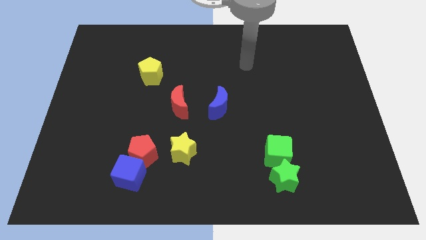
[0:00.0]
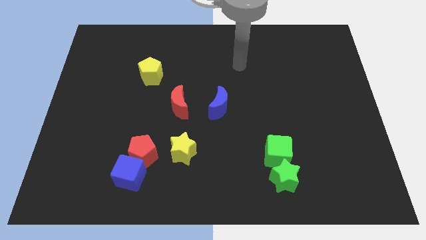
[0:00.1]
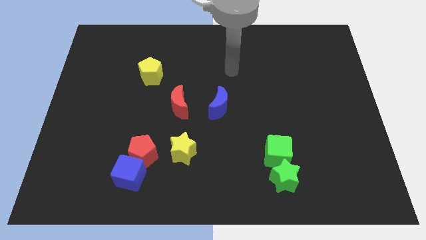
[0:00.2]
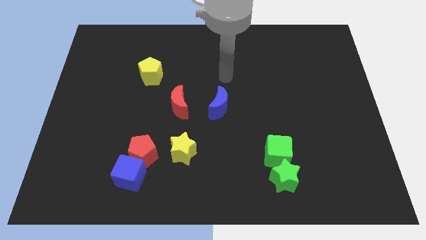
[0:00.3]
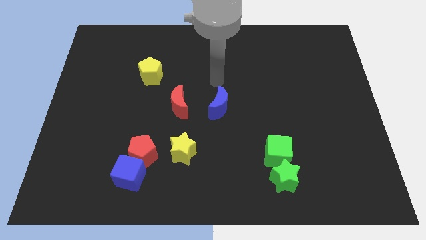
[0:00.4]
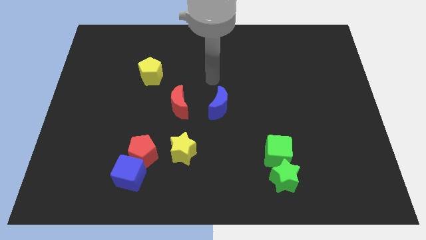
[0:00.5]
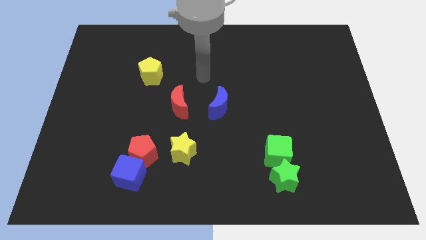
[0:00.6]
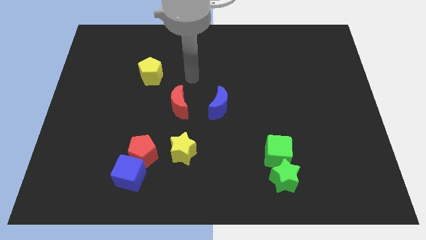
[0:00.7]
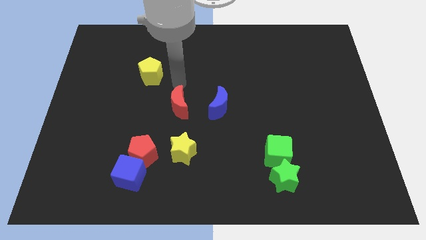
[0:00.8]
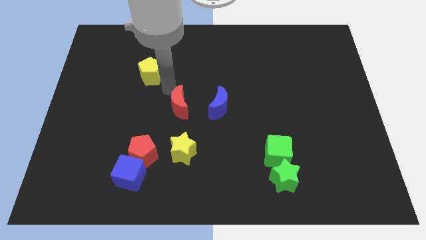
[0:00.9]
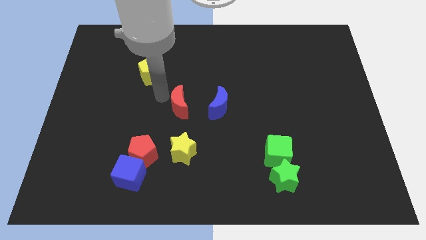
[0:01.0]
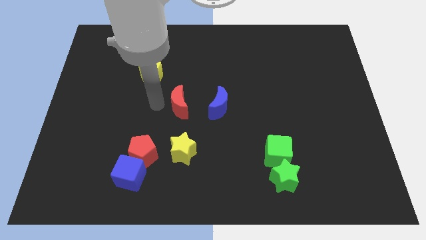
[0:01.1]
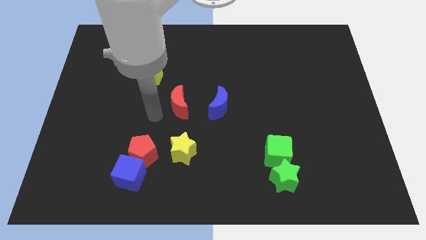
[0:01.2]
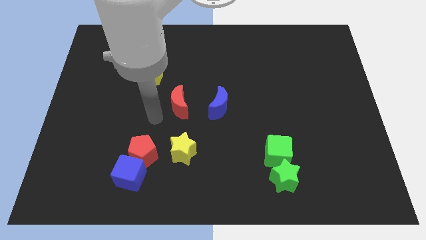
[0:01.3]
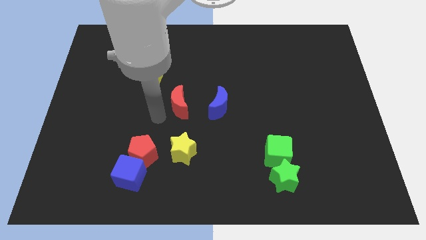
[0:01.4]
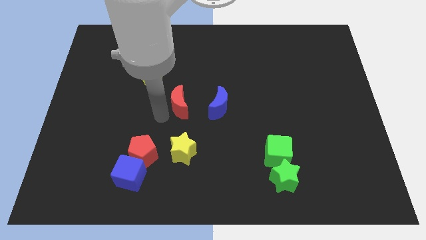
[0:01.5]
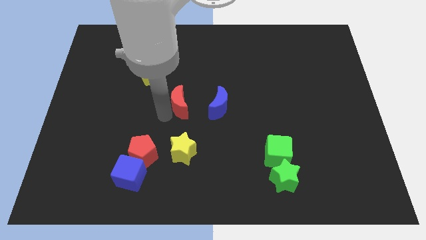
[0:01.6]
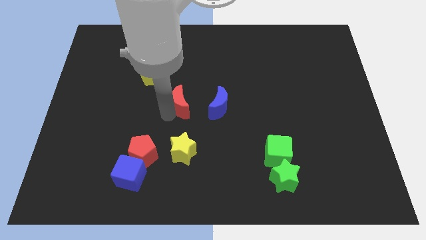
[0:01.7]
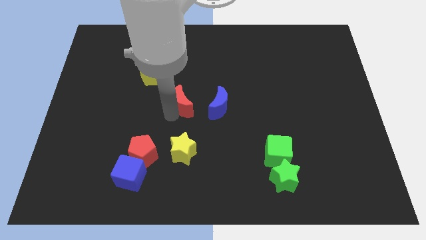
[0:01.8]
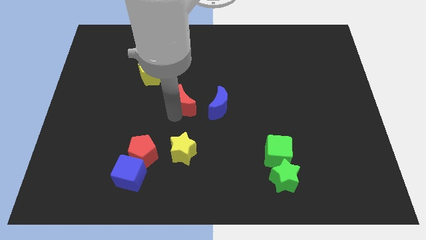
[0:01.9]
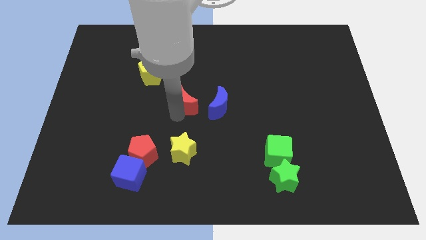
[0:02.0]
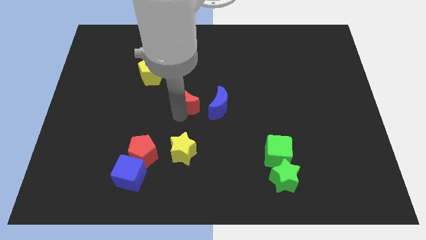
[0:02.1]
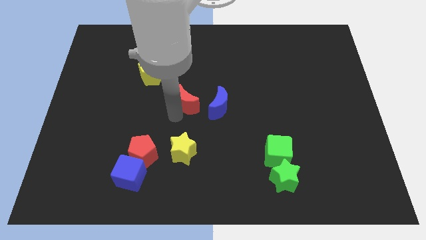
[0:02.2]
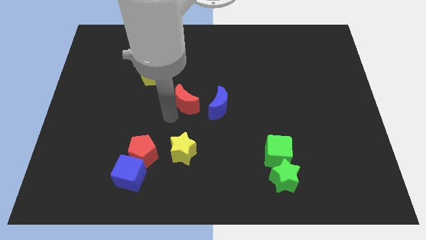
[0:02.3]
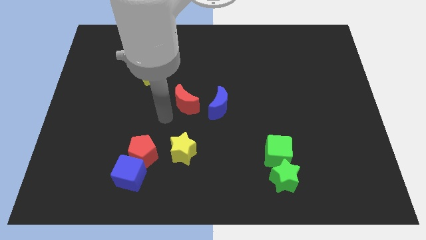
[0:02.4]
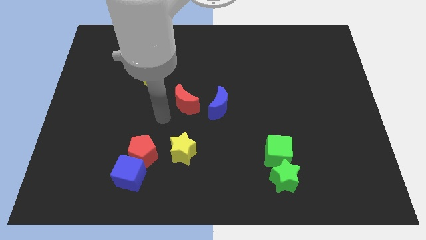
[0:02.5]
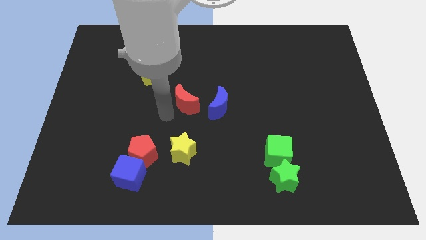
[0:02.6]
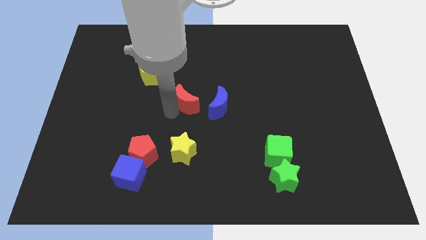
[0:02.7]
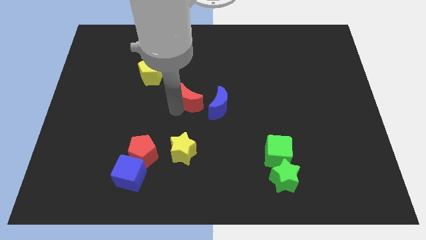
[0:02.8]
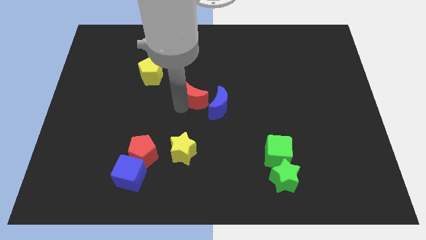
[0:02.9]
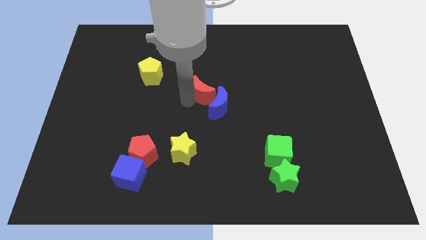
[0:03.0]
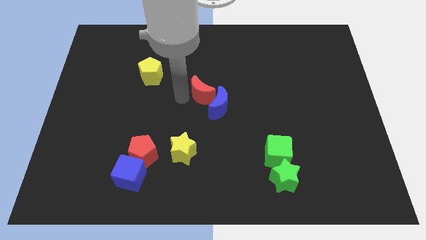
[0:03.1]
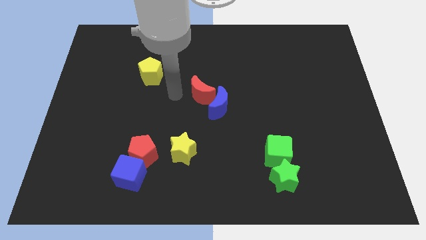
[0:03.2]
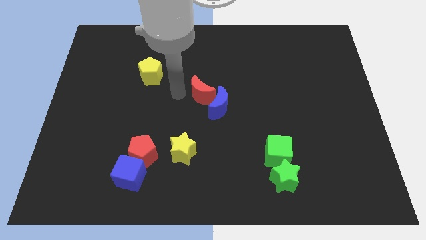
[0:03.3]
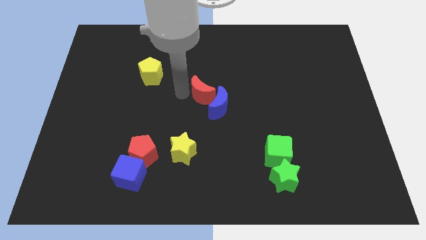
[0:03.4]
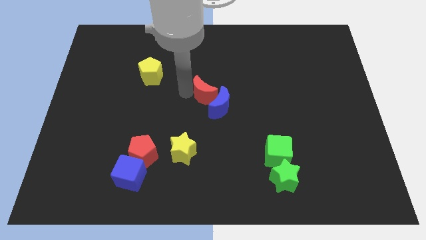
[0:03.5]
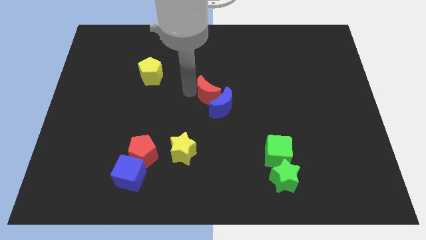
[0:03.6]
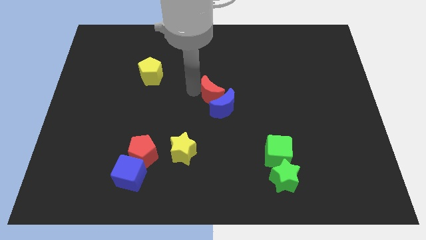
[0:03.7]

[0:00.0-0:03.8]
slightly slide the red moon to the right

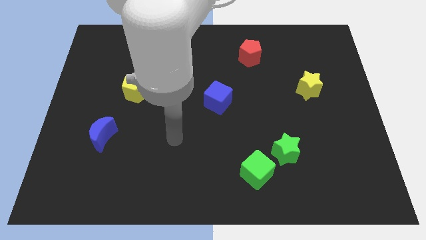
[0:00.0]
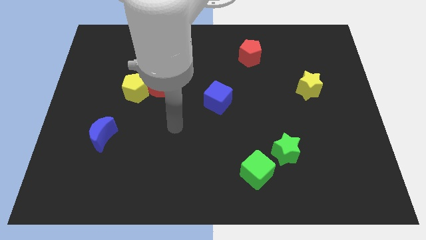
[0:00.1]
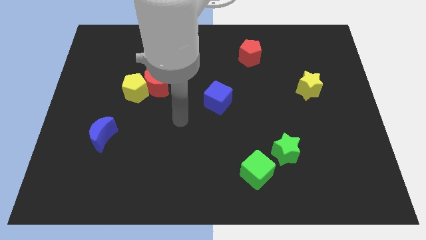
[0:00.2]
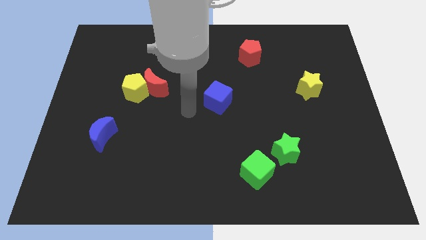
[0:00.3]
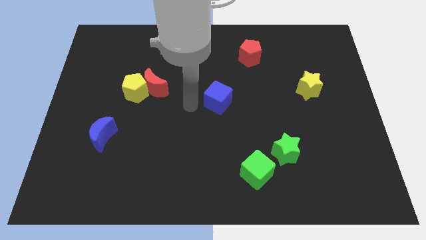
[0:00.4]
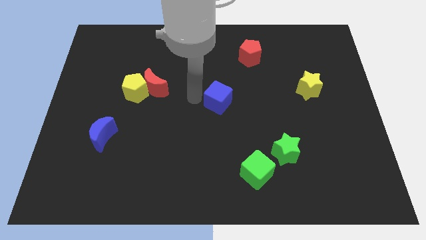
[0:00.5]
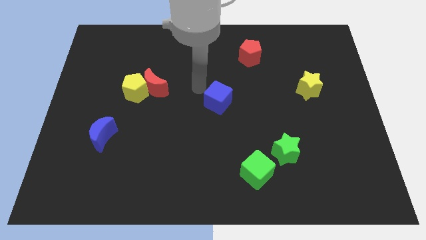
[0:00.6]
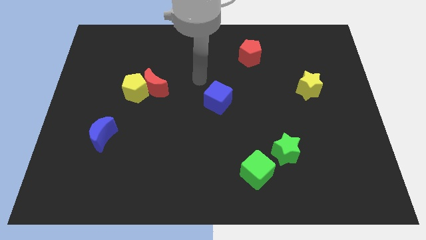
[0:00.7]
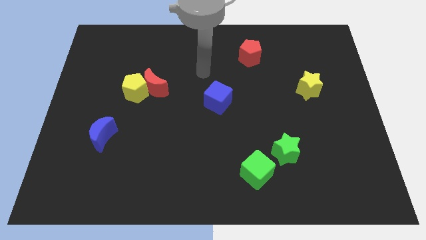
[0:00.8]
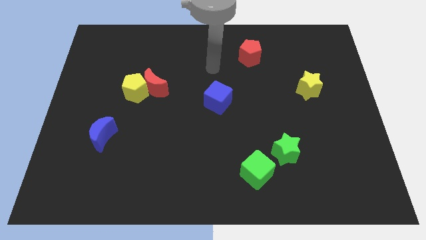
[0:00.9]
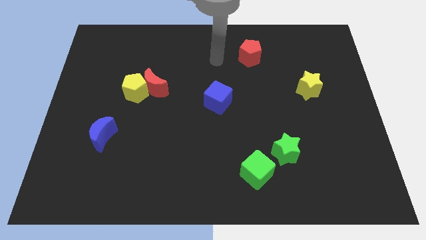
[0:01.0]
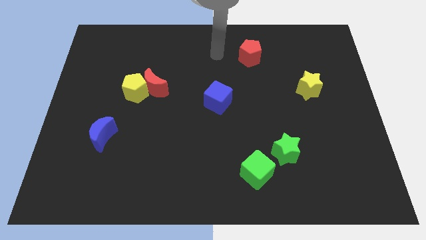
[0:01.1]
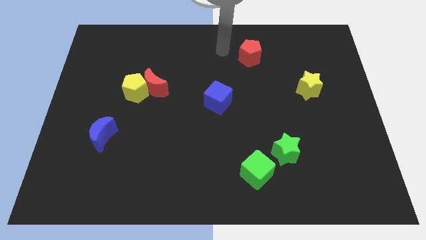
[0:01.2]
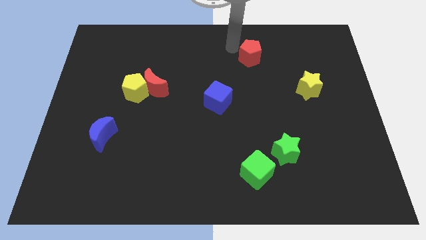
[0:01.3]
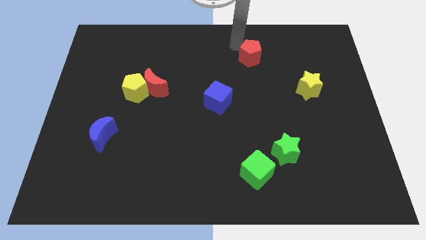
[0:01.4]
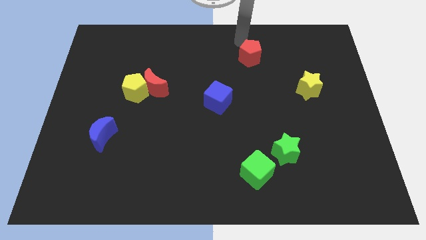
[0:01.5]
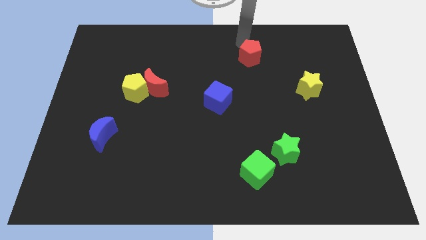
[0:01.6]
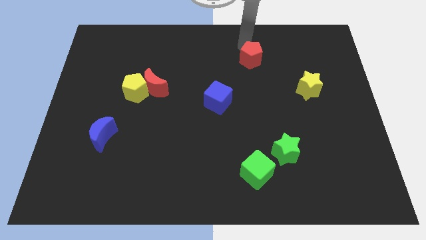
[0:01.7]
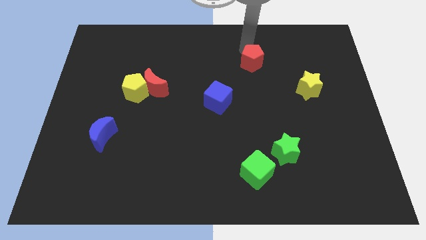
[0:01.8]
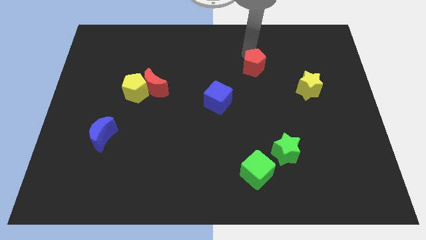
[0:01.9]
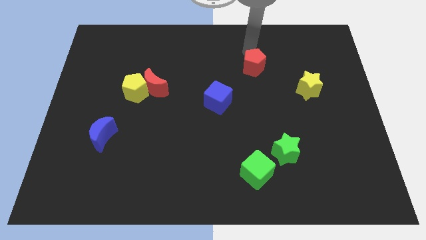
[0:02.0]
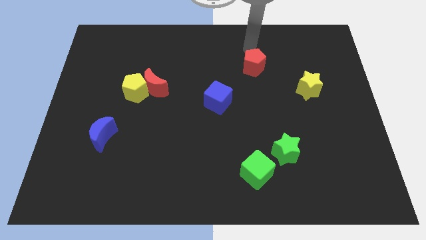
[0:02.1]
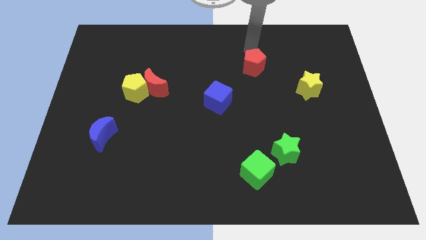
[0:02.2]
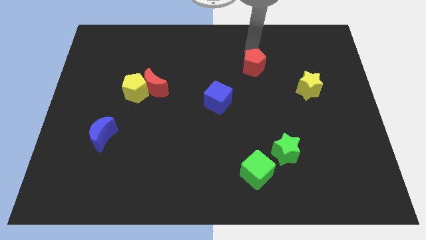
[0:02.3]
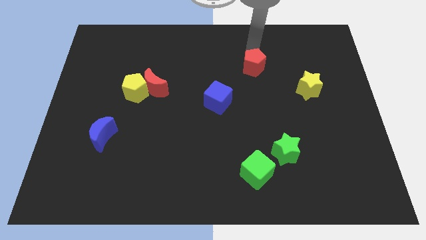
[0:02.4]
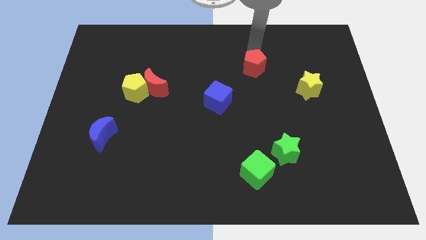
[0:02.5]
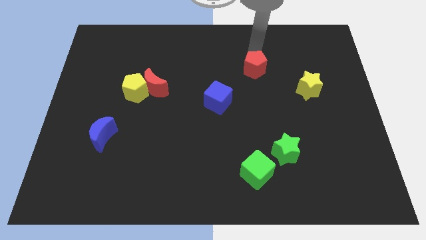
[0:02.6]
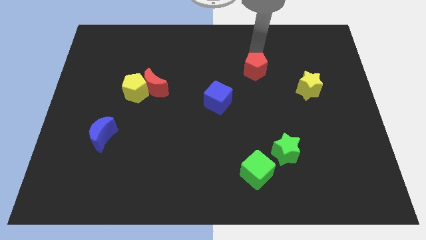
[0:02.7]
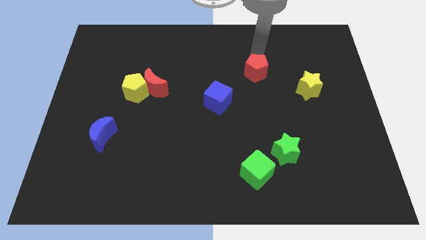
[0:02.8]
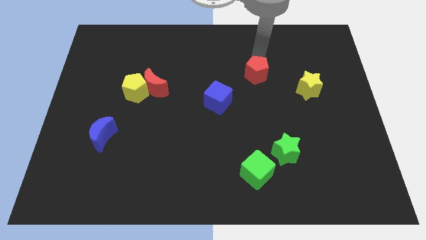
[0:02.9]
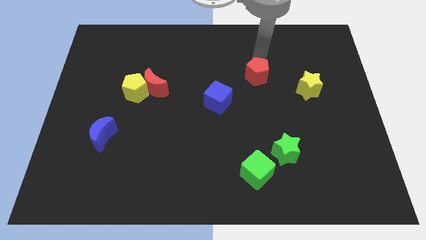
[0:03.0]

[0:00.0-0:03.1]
slightly push the red pentagon downwards

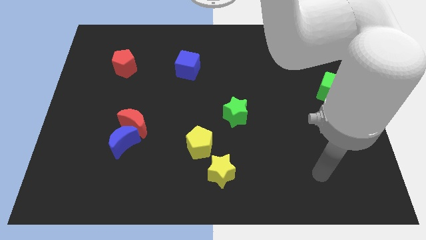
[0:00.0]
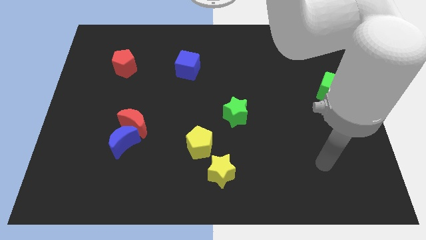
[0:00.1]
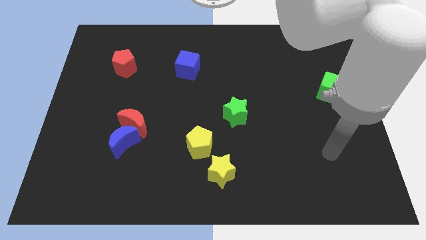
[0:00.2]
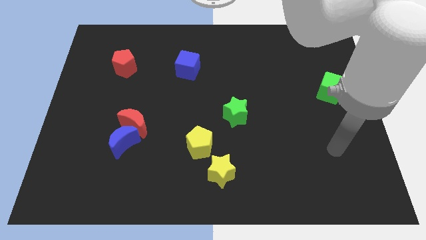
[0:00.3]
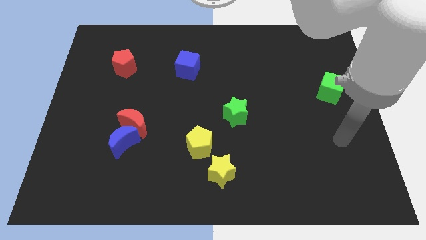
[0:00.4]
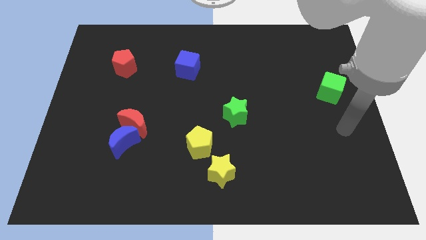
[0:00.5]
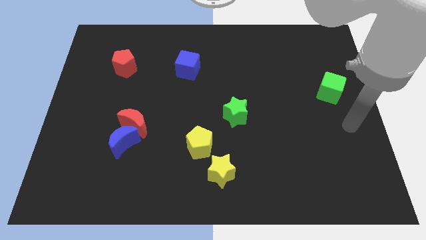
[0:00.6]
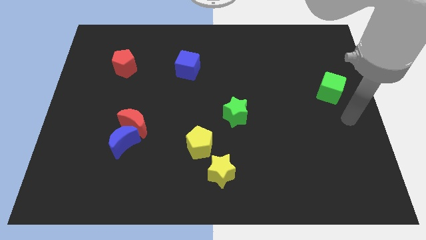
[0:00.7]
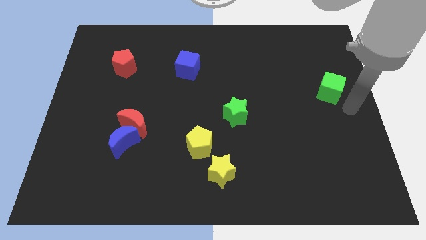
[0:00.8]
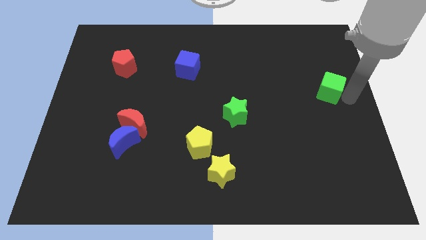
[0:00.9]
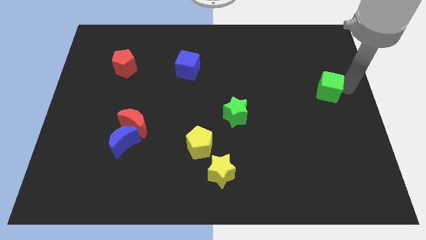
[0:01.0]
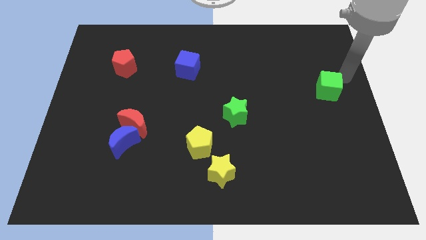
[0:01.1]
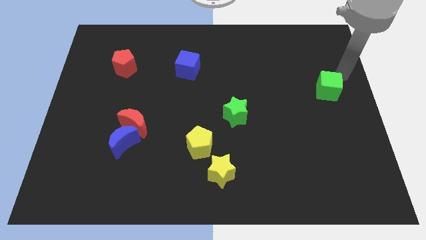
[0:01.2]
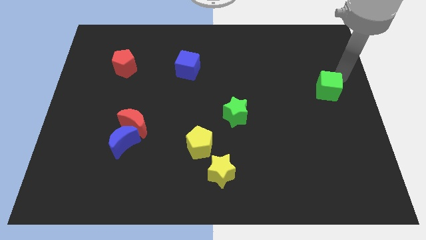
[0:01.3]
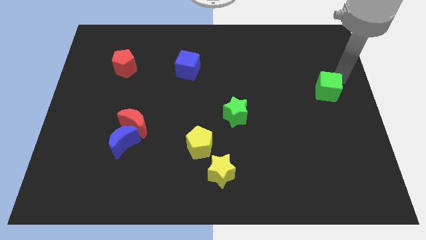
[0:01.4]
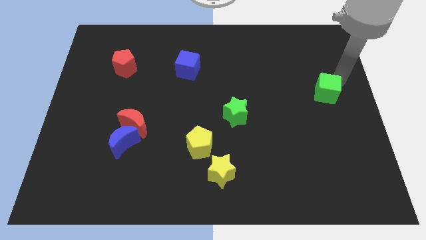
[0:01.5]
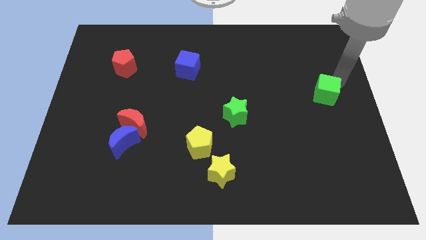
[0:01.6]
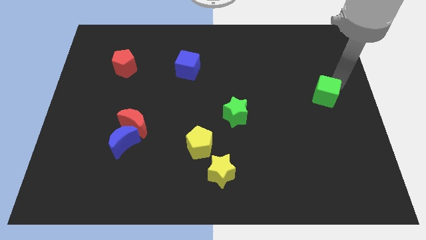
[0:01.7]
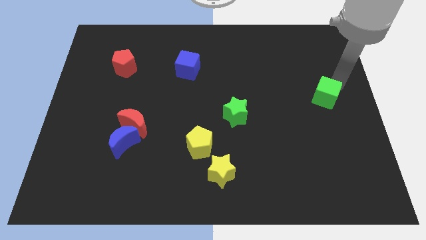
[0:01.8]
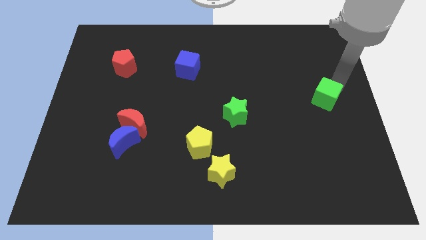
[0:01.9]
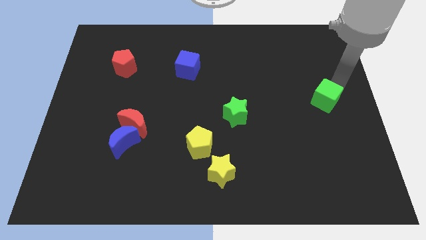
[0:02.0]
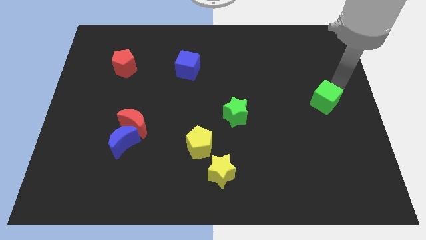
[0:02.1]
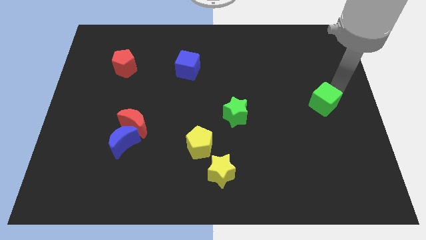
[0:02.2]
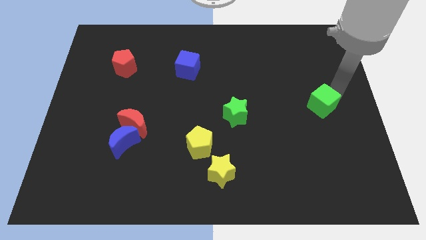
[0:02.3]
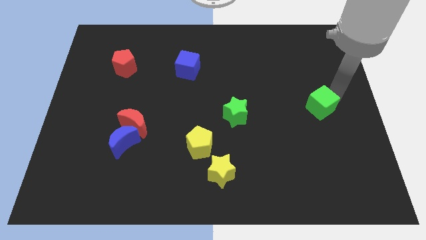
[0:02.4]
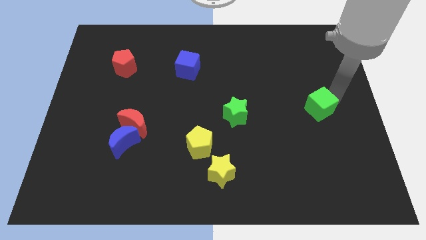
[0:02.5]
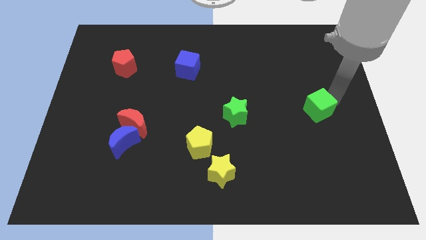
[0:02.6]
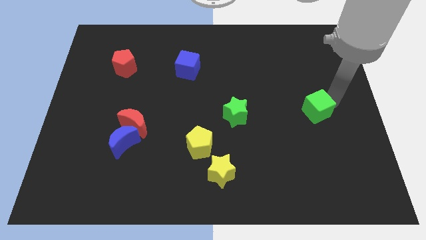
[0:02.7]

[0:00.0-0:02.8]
slide the green cube down and left a bit
